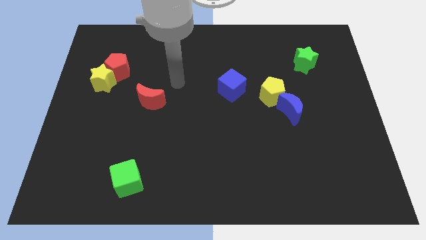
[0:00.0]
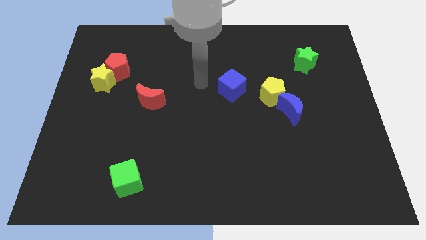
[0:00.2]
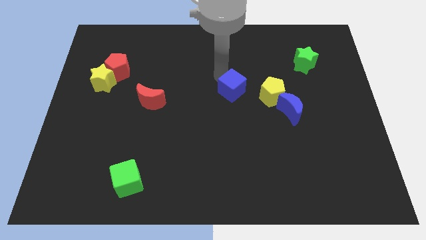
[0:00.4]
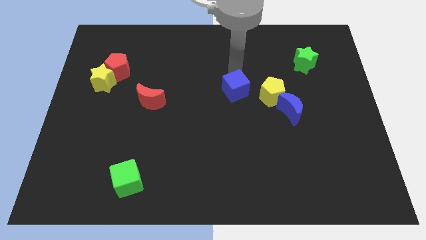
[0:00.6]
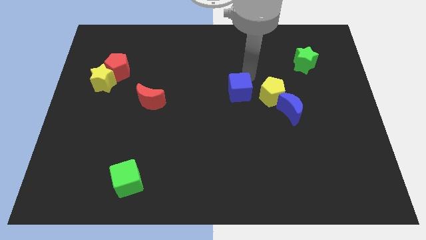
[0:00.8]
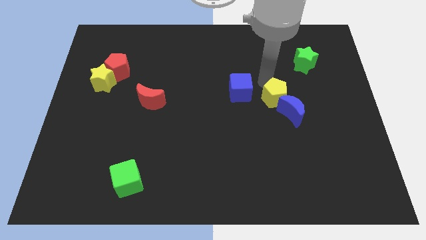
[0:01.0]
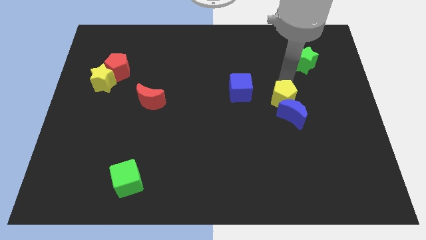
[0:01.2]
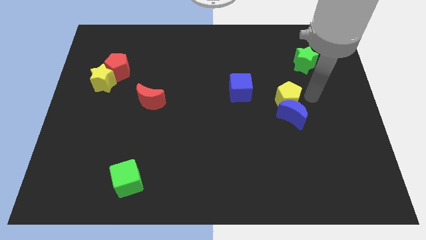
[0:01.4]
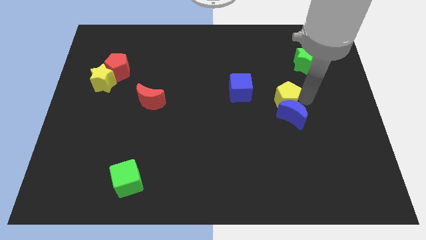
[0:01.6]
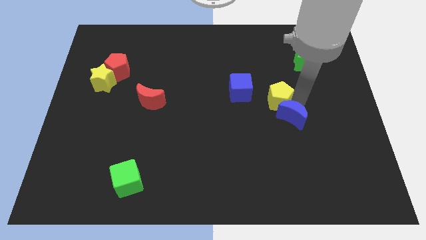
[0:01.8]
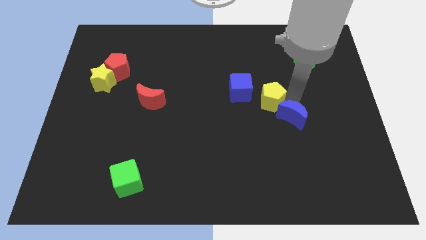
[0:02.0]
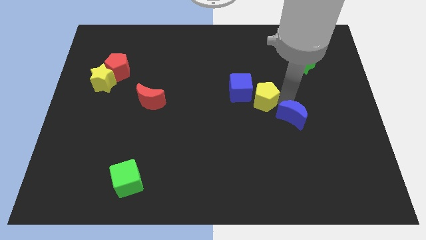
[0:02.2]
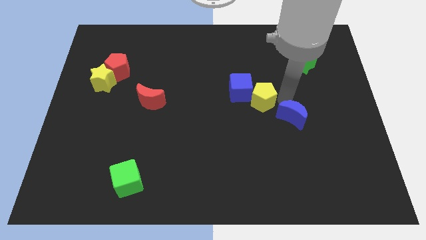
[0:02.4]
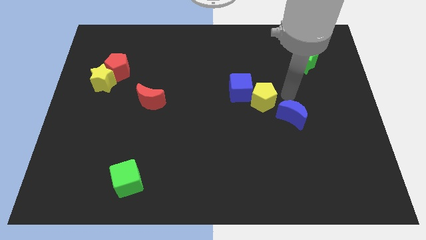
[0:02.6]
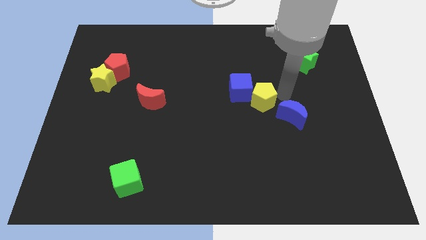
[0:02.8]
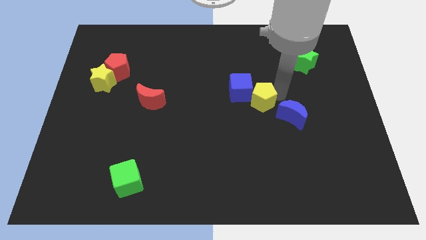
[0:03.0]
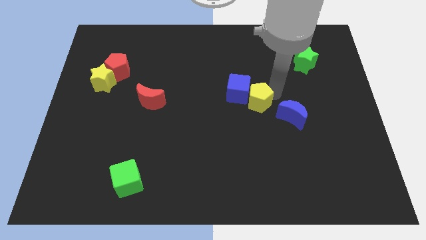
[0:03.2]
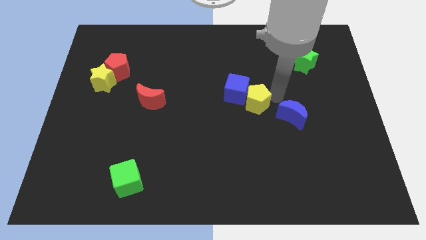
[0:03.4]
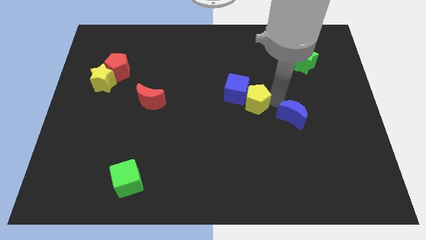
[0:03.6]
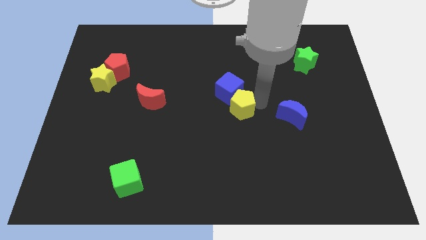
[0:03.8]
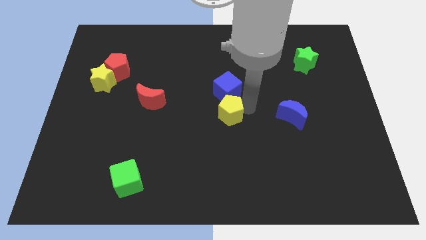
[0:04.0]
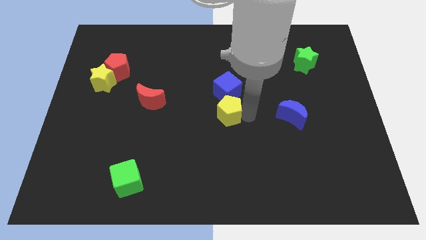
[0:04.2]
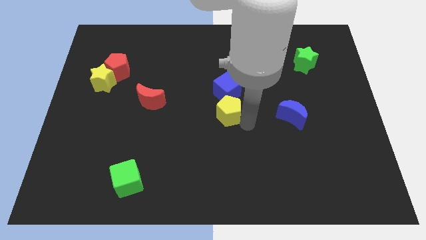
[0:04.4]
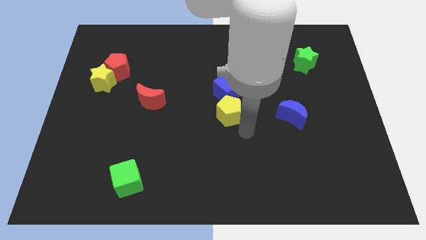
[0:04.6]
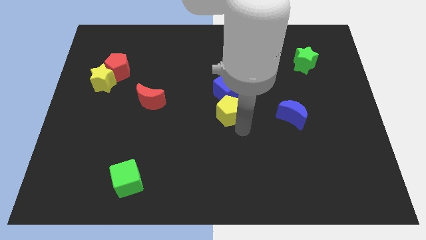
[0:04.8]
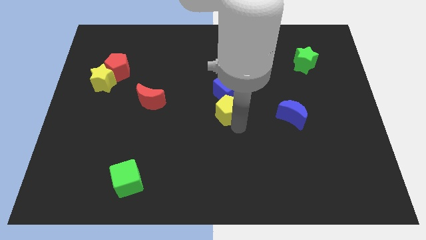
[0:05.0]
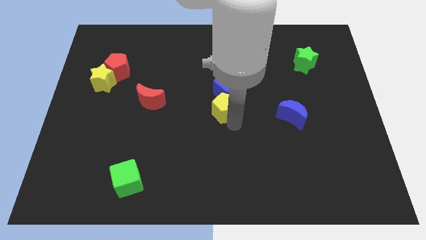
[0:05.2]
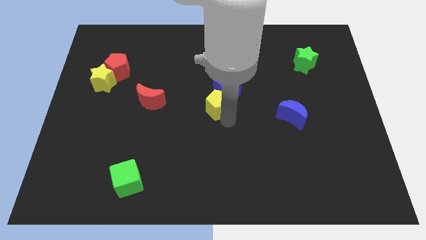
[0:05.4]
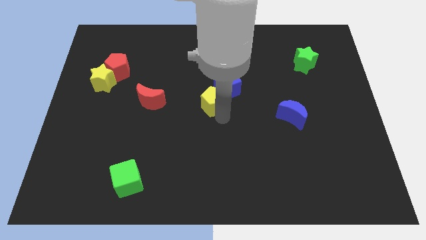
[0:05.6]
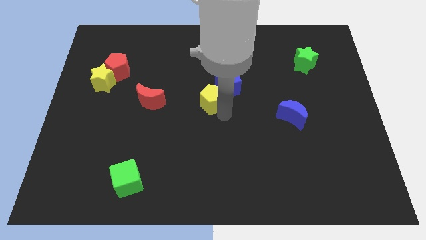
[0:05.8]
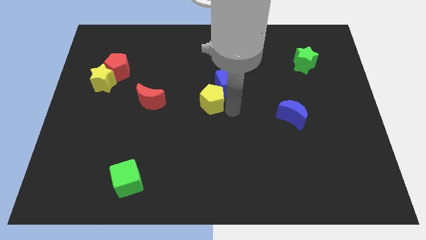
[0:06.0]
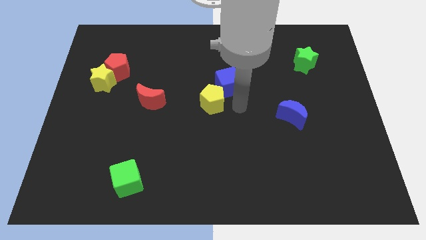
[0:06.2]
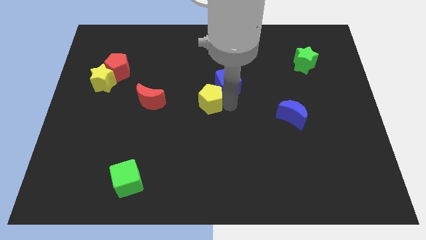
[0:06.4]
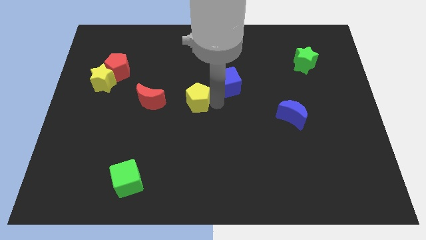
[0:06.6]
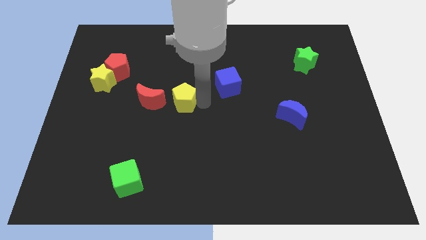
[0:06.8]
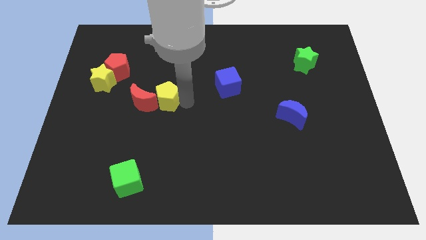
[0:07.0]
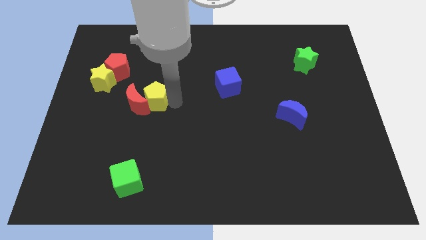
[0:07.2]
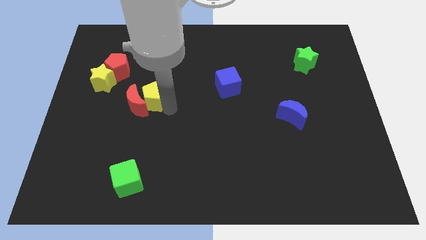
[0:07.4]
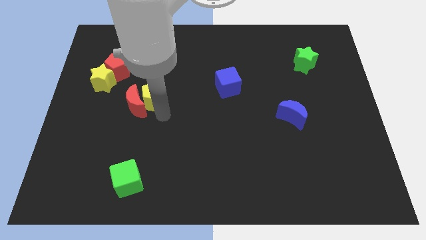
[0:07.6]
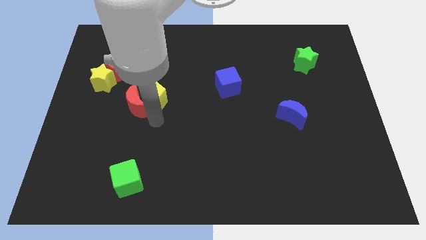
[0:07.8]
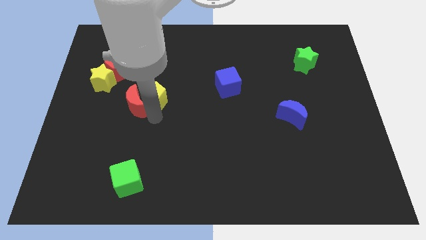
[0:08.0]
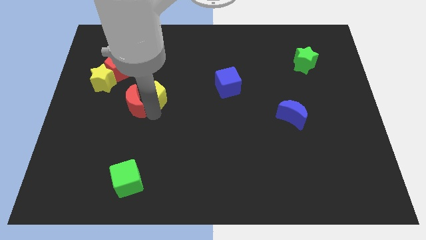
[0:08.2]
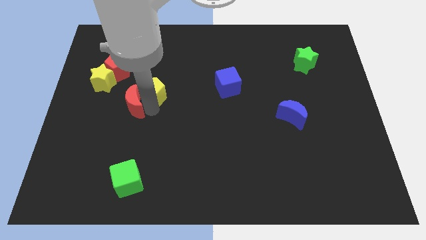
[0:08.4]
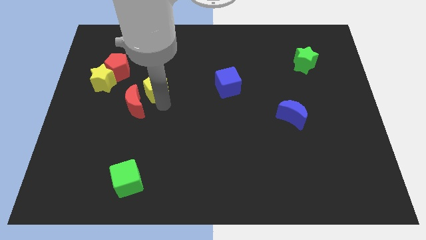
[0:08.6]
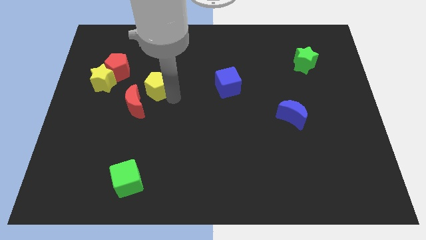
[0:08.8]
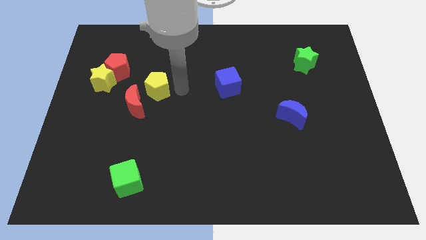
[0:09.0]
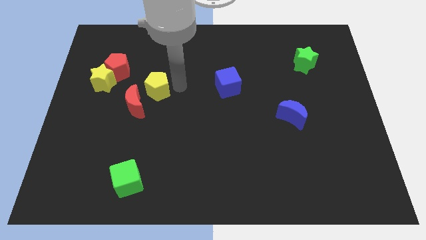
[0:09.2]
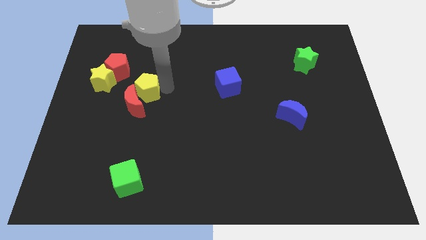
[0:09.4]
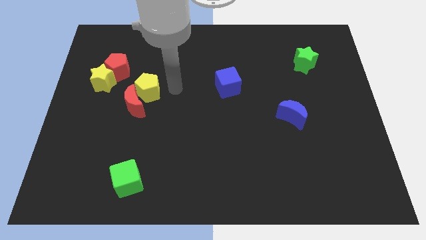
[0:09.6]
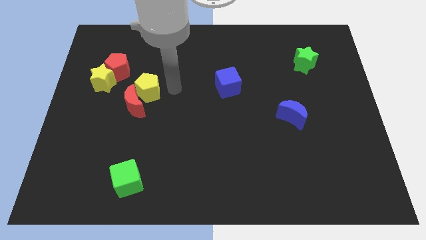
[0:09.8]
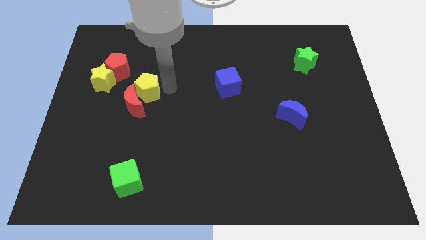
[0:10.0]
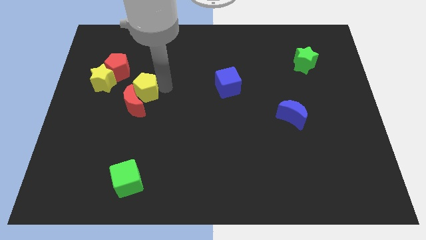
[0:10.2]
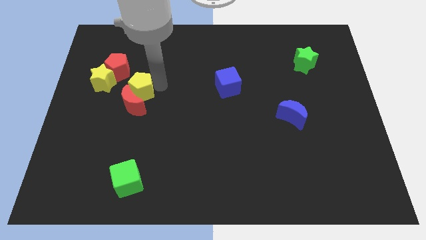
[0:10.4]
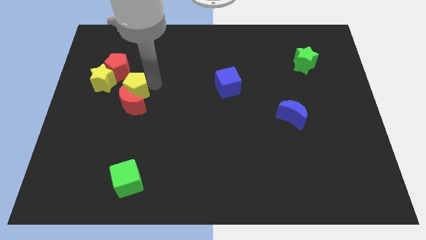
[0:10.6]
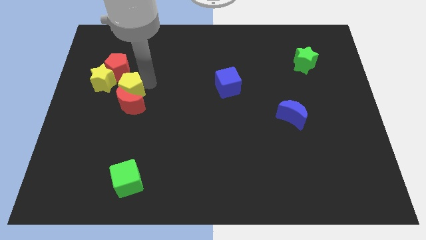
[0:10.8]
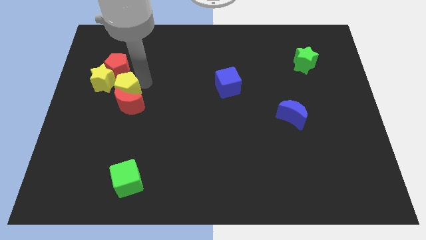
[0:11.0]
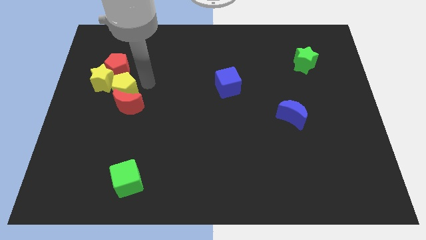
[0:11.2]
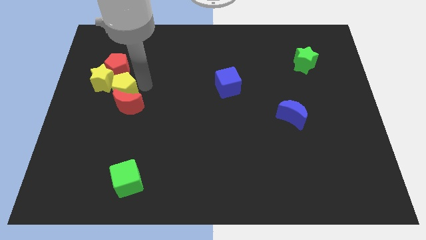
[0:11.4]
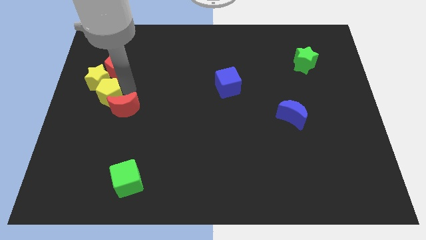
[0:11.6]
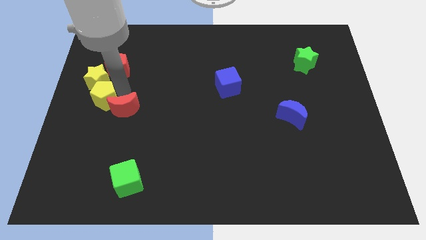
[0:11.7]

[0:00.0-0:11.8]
move the yellow pentagon to the left side

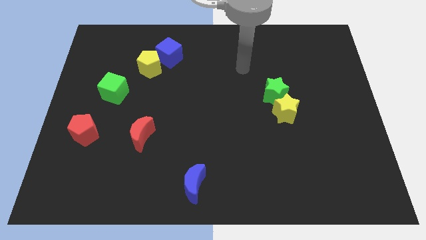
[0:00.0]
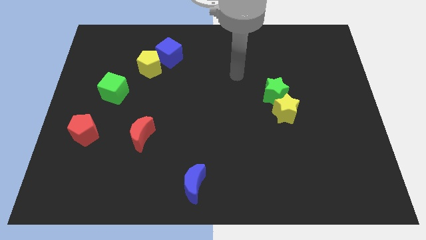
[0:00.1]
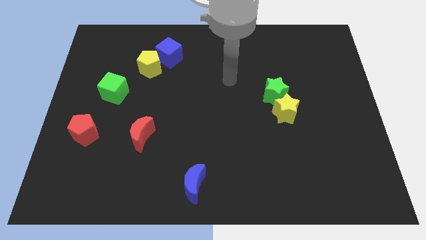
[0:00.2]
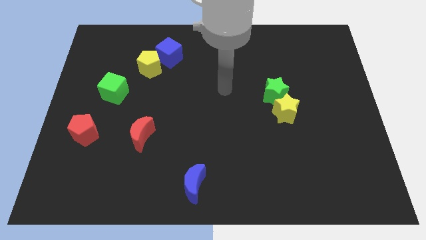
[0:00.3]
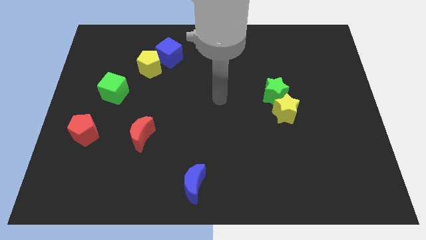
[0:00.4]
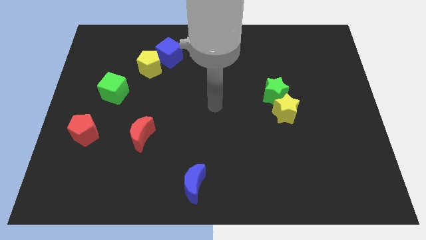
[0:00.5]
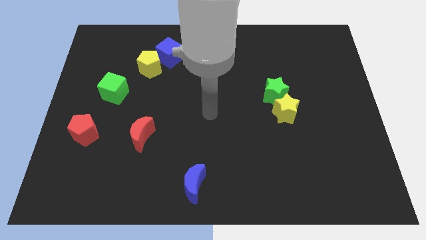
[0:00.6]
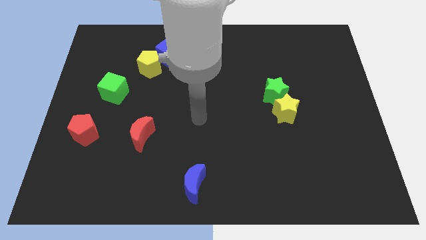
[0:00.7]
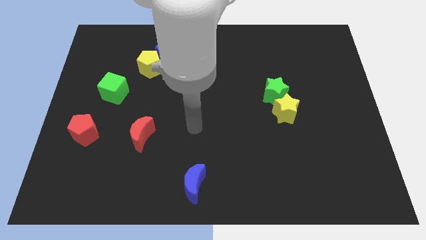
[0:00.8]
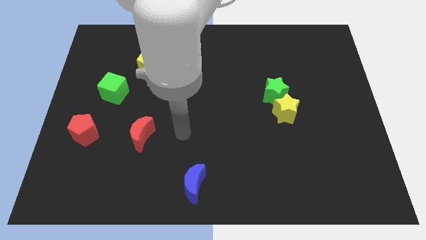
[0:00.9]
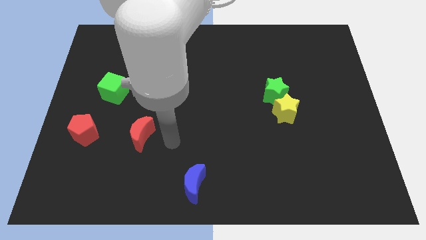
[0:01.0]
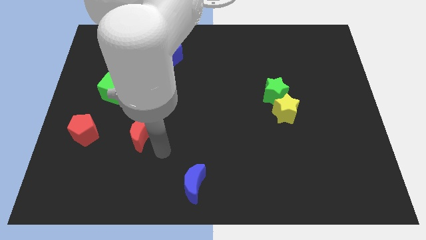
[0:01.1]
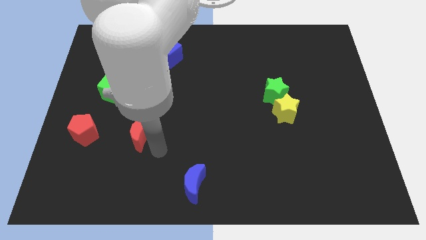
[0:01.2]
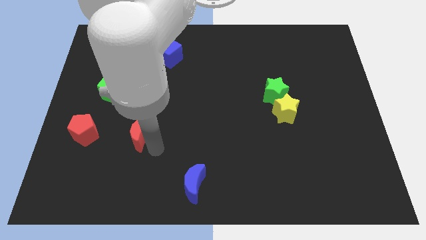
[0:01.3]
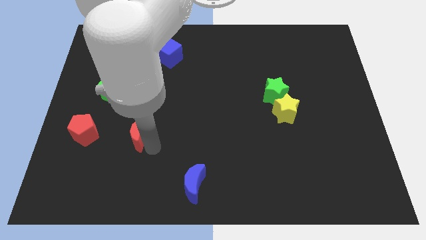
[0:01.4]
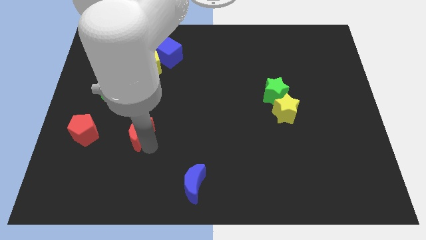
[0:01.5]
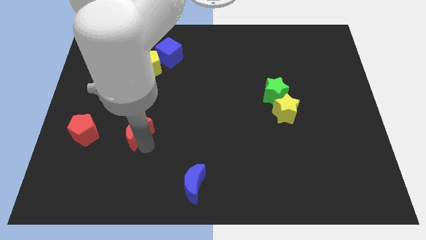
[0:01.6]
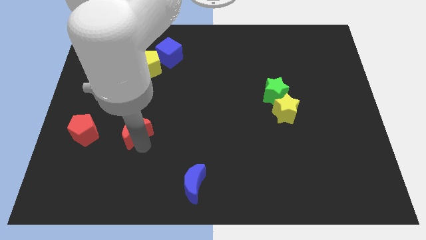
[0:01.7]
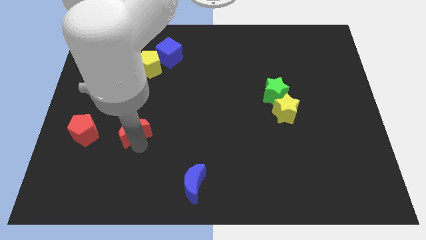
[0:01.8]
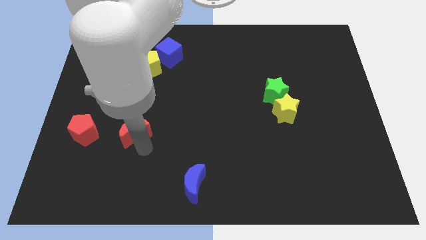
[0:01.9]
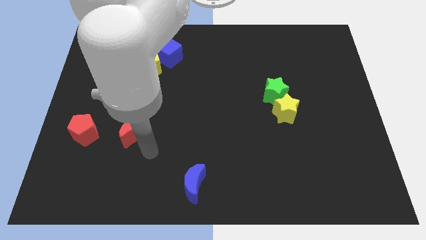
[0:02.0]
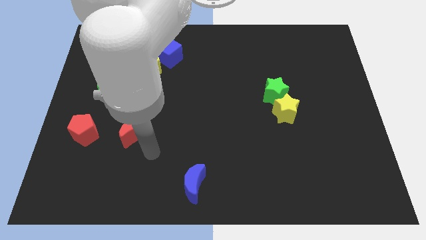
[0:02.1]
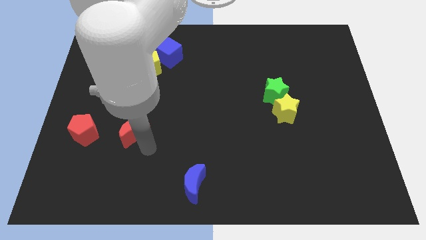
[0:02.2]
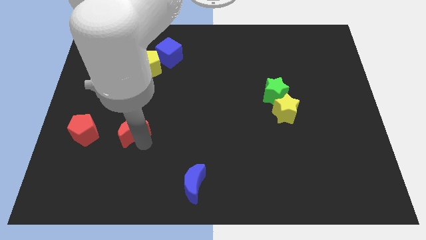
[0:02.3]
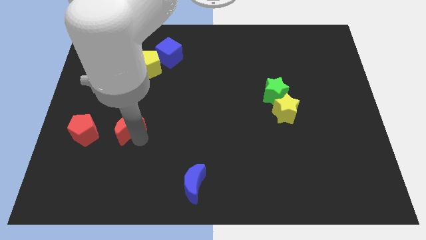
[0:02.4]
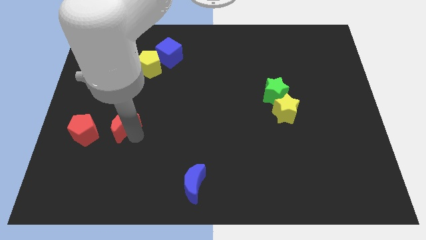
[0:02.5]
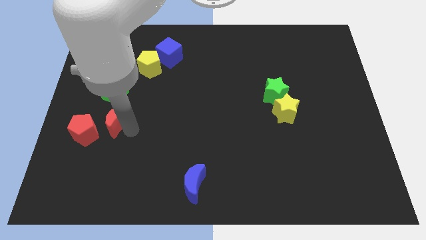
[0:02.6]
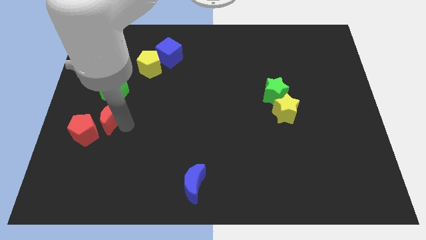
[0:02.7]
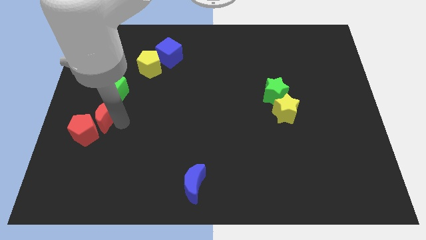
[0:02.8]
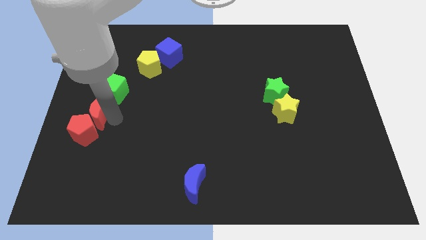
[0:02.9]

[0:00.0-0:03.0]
push the red moon to the left side of the board
